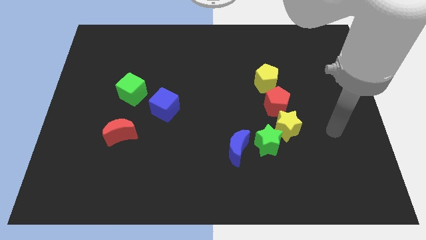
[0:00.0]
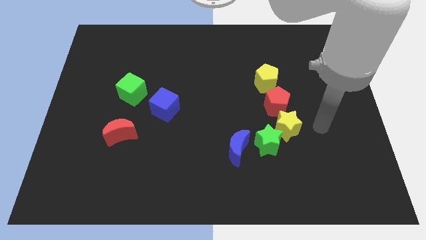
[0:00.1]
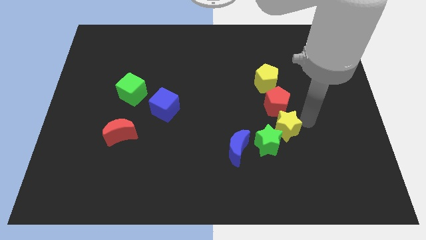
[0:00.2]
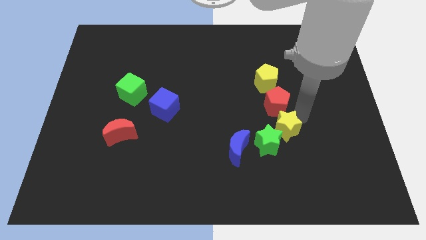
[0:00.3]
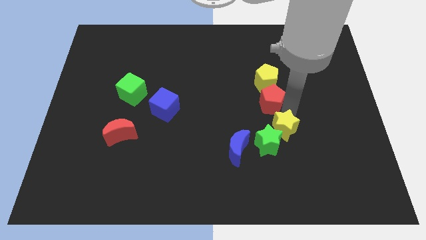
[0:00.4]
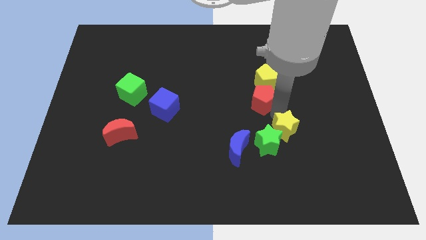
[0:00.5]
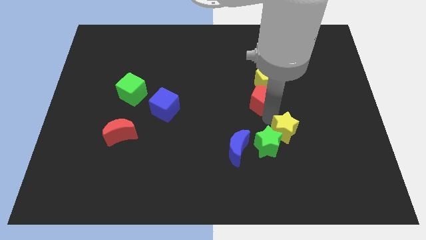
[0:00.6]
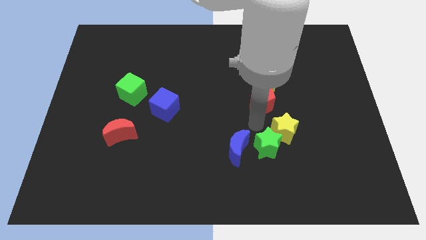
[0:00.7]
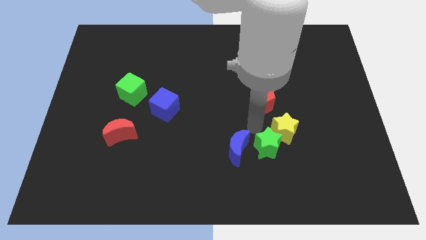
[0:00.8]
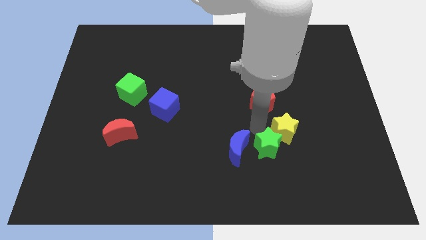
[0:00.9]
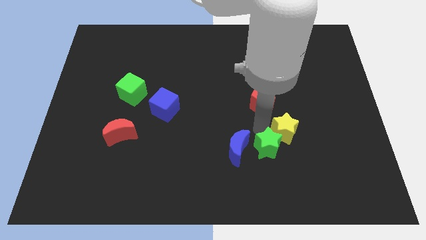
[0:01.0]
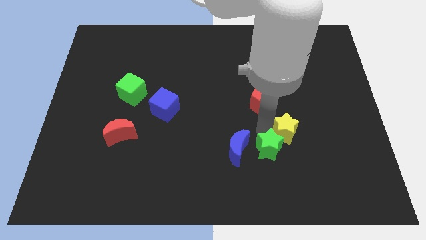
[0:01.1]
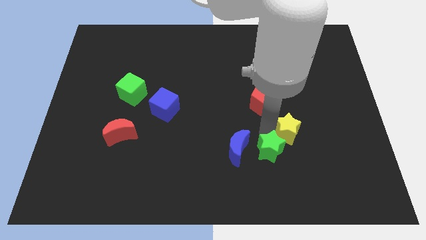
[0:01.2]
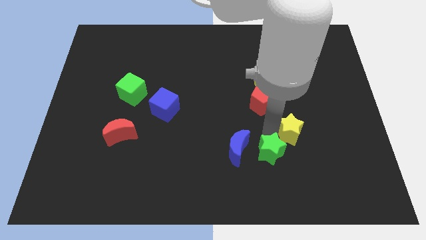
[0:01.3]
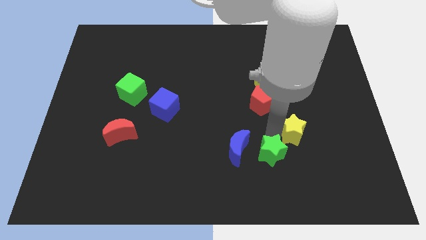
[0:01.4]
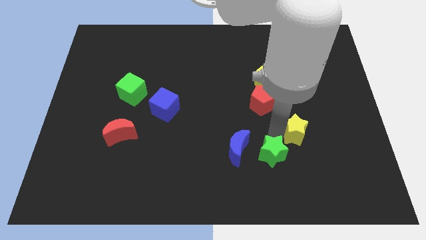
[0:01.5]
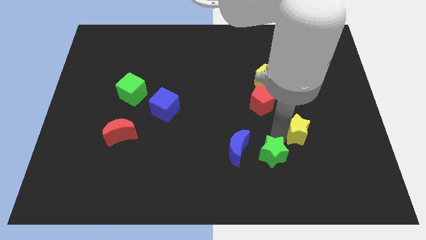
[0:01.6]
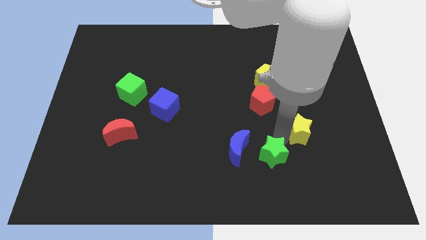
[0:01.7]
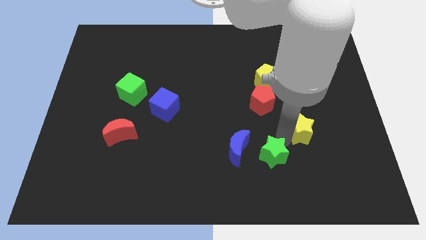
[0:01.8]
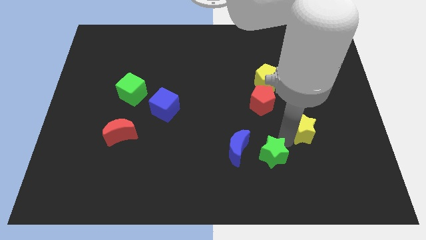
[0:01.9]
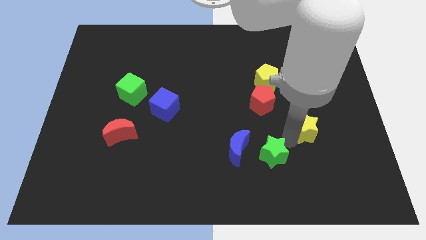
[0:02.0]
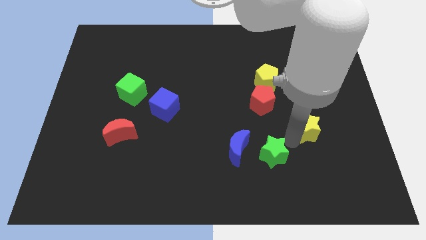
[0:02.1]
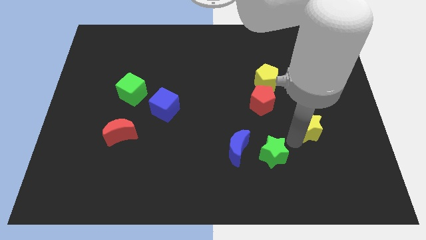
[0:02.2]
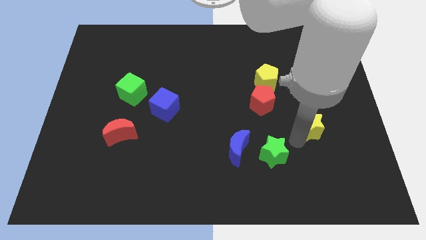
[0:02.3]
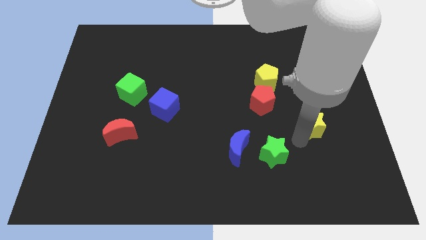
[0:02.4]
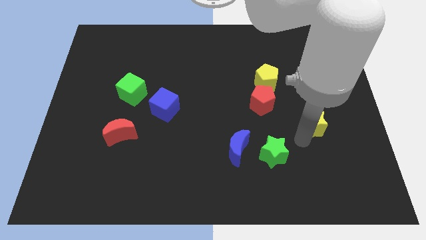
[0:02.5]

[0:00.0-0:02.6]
move the yellow star away from the green star and red pentagon

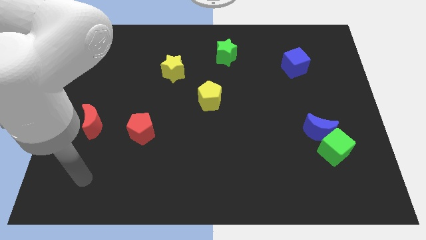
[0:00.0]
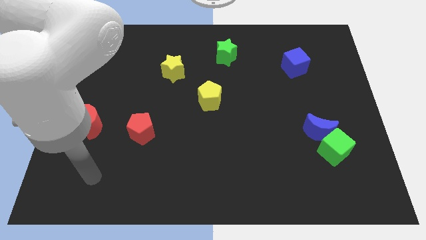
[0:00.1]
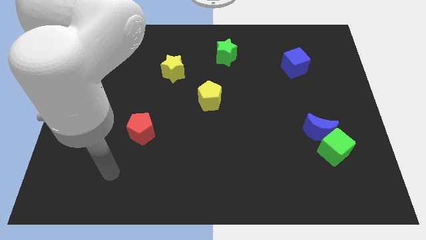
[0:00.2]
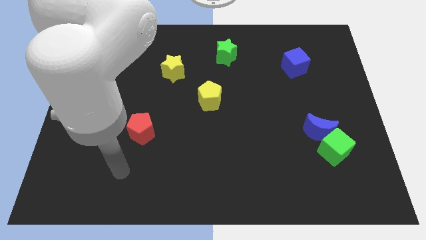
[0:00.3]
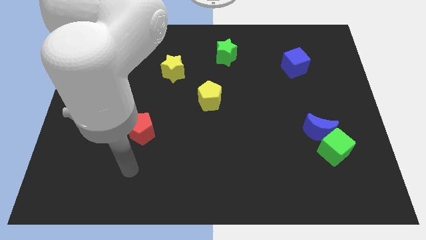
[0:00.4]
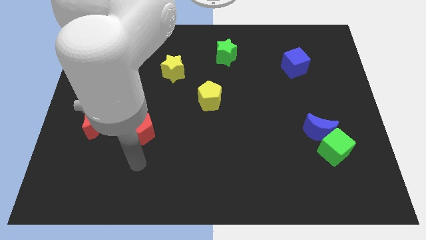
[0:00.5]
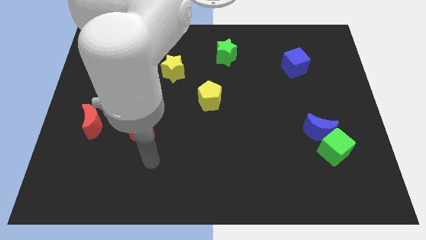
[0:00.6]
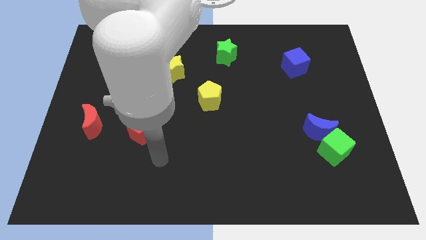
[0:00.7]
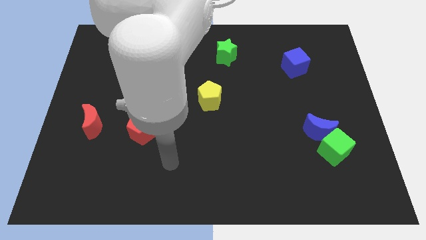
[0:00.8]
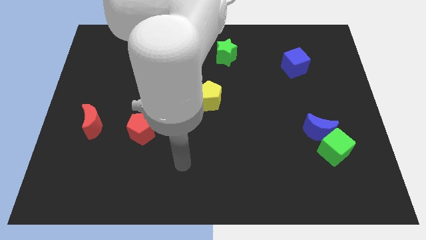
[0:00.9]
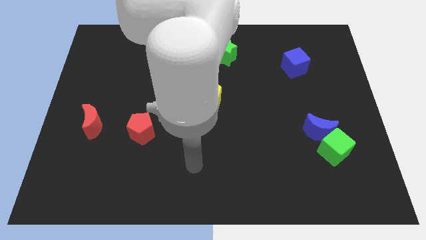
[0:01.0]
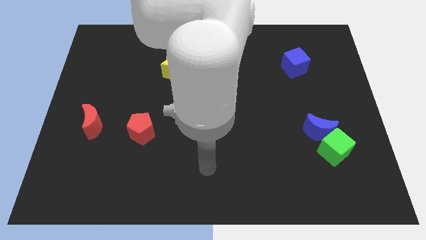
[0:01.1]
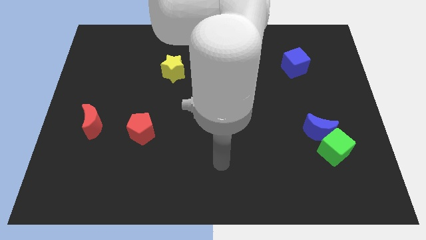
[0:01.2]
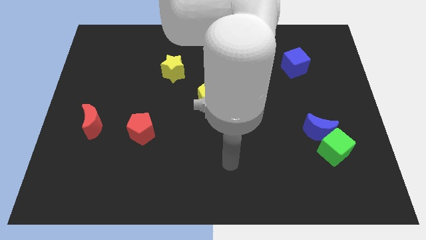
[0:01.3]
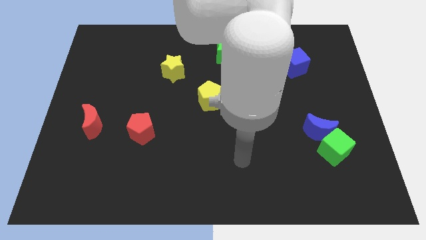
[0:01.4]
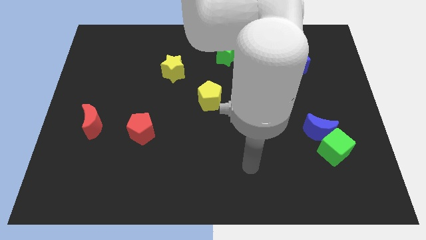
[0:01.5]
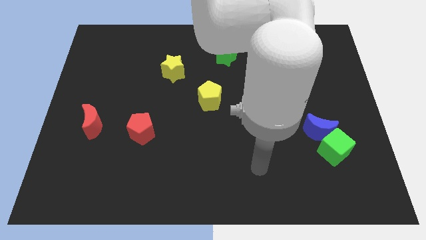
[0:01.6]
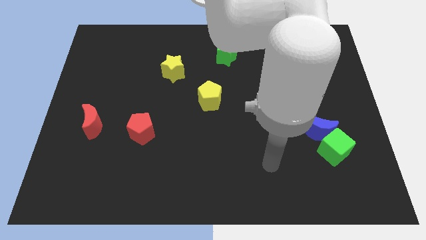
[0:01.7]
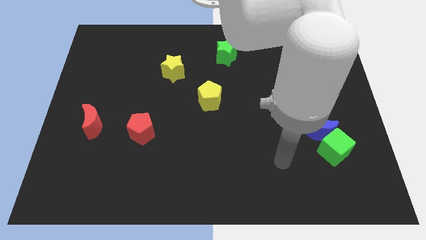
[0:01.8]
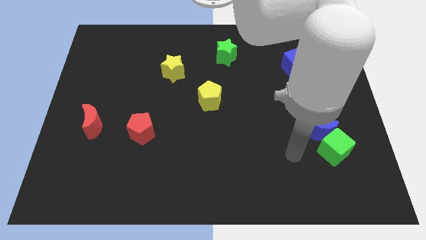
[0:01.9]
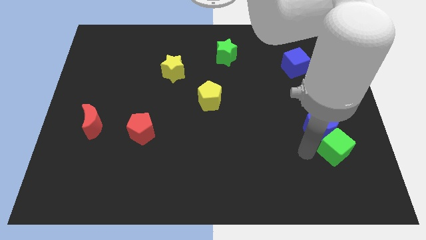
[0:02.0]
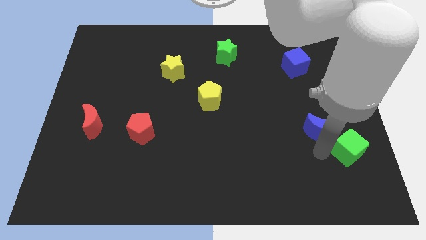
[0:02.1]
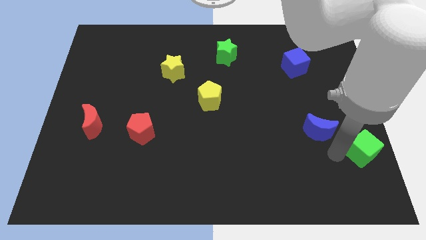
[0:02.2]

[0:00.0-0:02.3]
pull the blue moon apart from the green cube

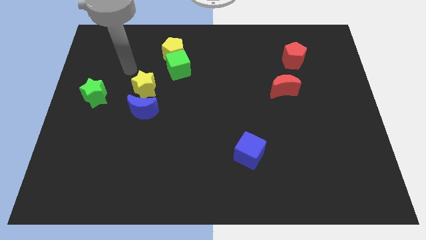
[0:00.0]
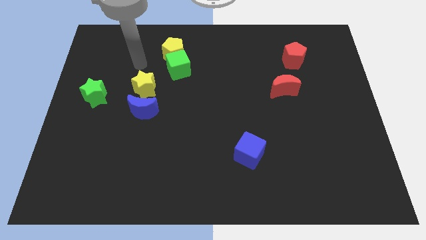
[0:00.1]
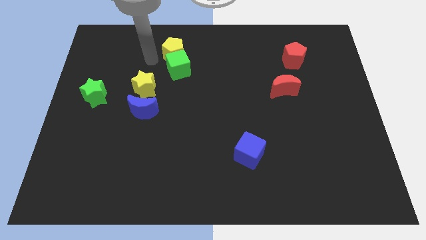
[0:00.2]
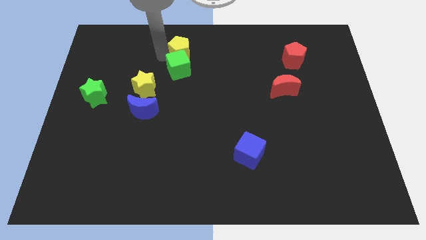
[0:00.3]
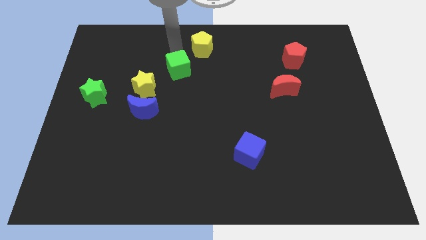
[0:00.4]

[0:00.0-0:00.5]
move the green cube away from the yellow pentagon

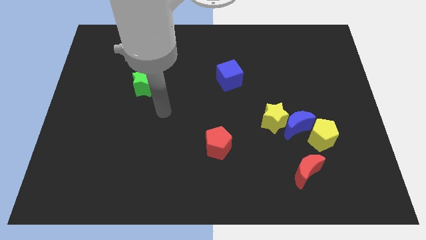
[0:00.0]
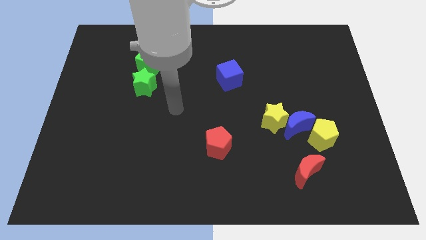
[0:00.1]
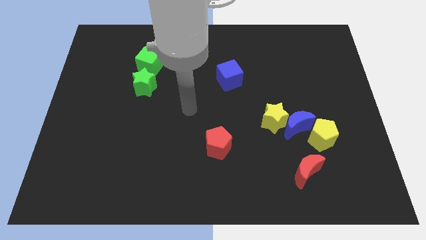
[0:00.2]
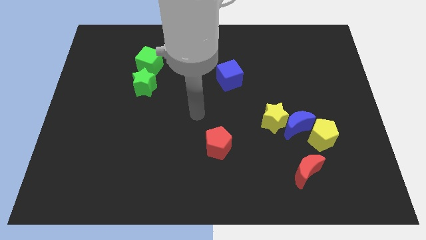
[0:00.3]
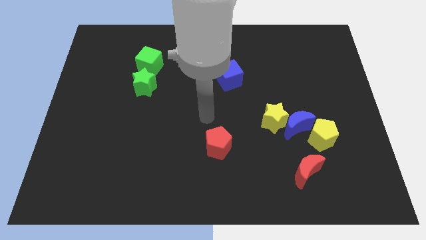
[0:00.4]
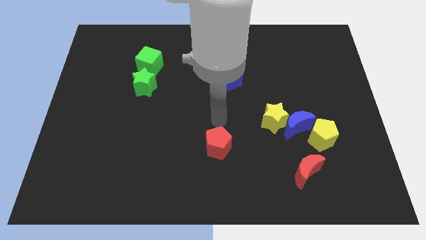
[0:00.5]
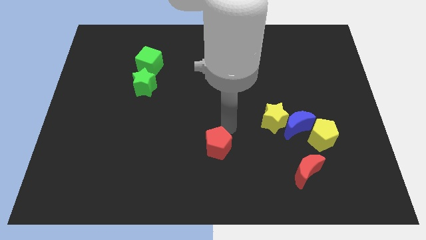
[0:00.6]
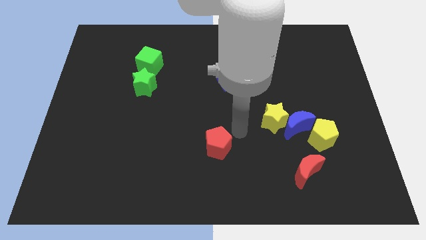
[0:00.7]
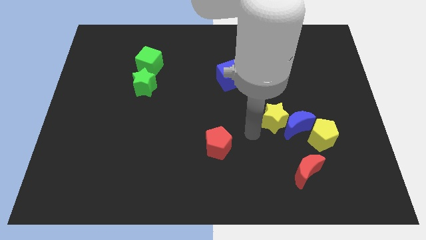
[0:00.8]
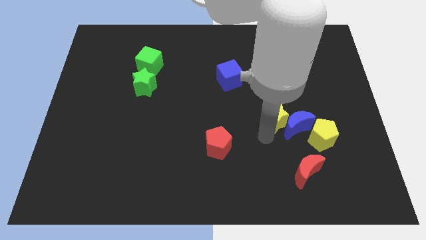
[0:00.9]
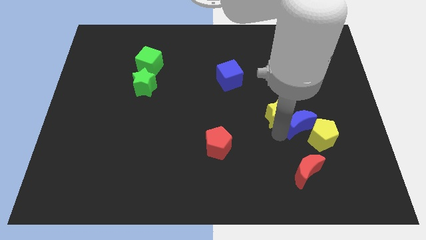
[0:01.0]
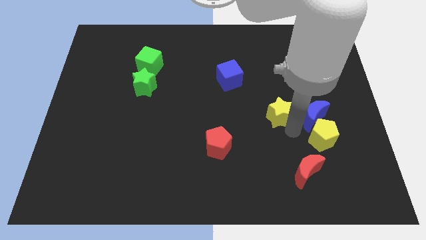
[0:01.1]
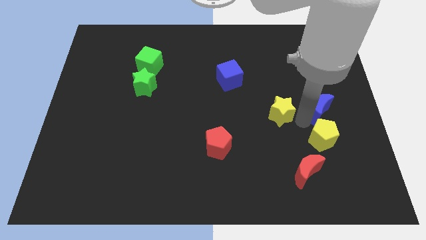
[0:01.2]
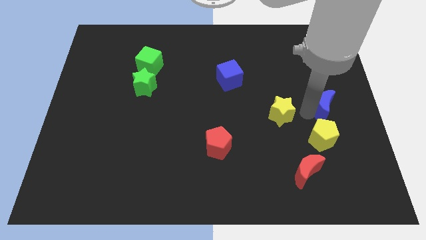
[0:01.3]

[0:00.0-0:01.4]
pull the yellow star apart from the blue moon

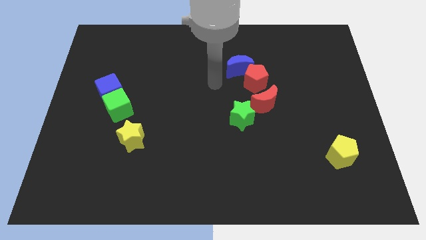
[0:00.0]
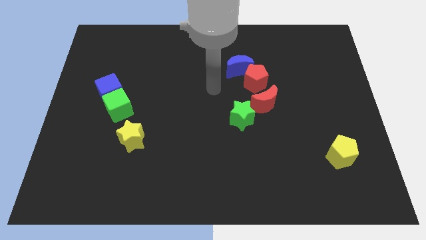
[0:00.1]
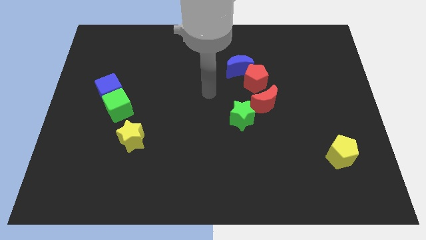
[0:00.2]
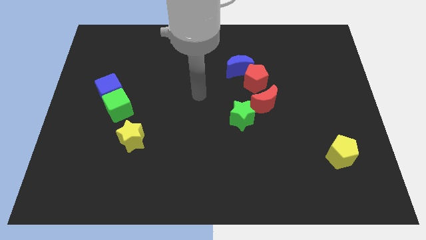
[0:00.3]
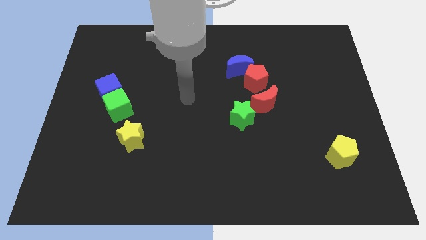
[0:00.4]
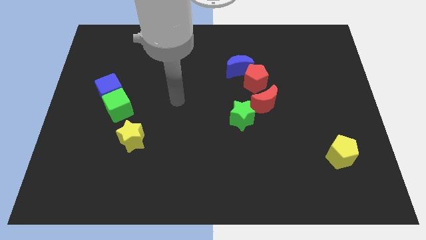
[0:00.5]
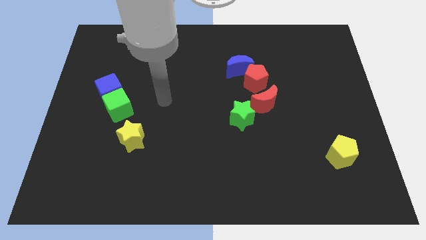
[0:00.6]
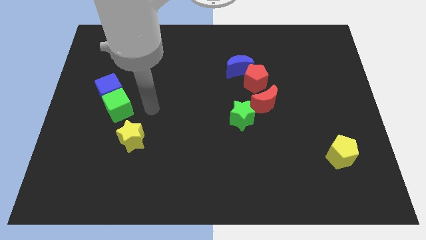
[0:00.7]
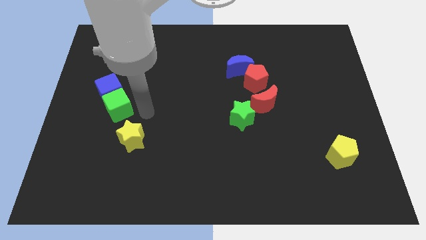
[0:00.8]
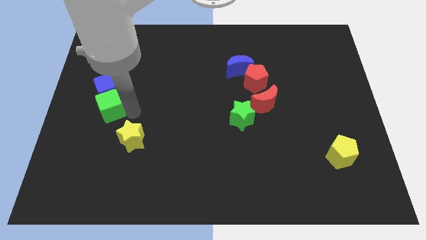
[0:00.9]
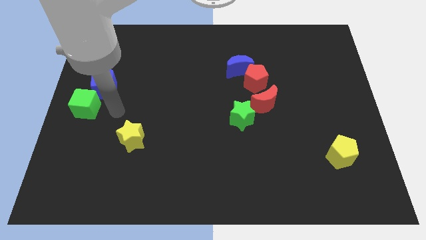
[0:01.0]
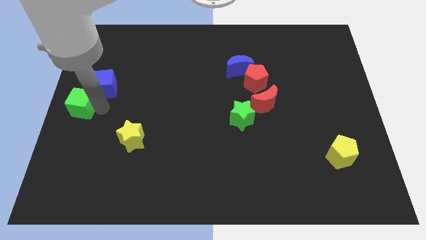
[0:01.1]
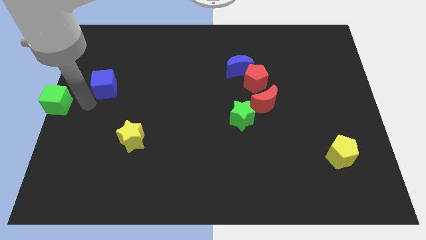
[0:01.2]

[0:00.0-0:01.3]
move the blue cube away from the green cube

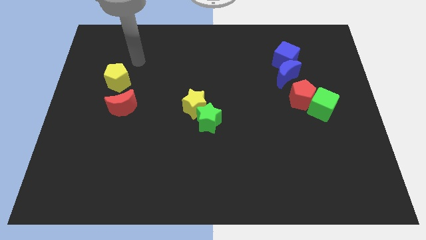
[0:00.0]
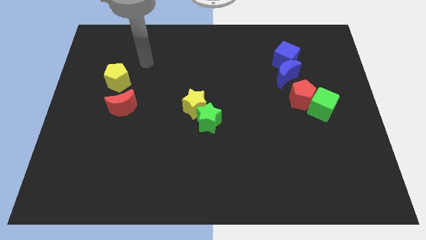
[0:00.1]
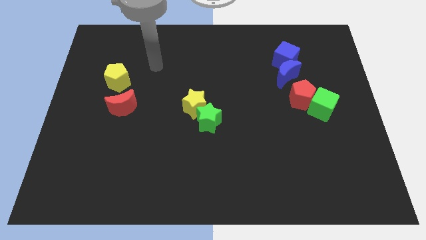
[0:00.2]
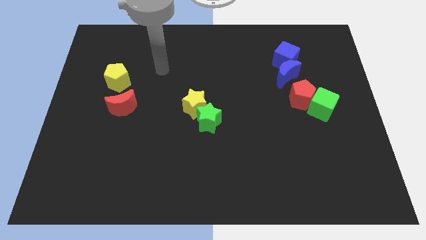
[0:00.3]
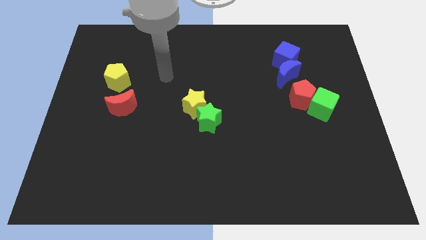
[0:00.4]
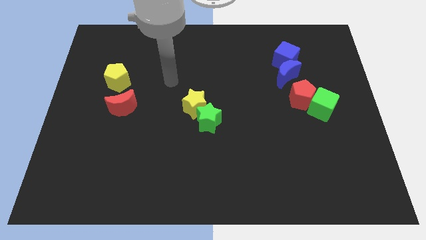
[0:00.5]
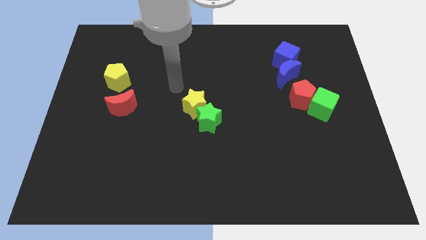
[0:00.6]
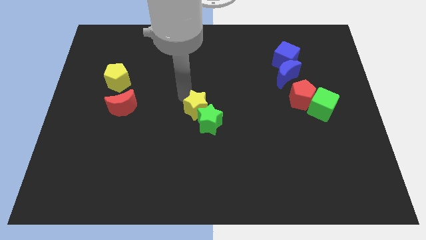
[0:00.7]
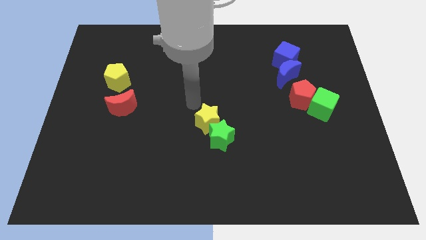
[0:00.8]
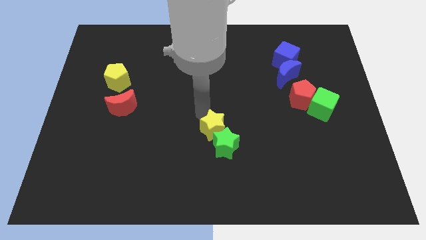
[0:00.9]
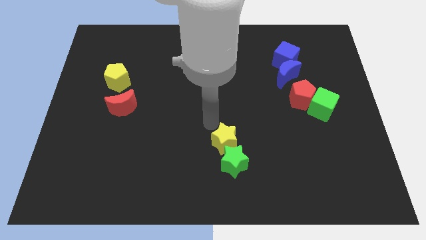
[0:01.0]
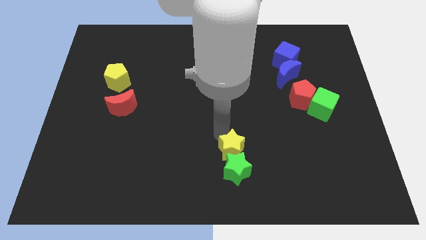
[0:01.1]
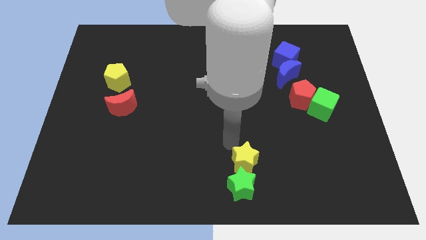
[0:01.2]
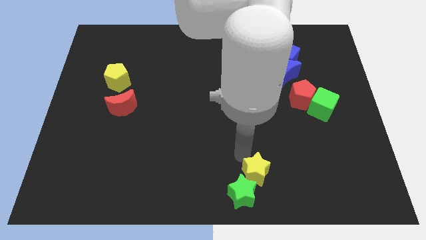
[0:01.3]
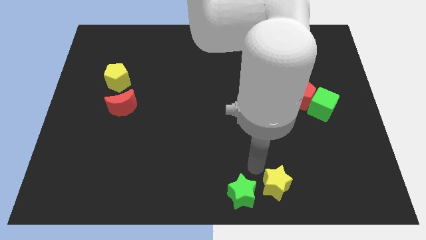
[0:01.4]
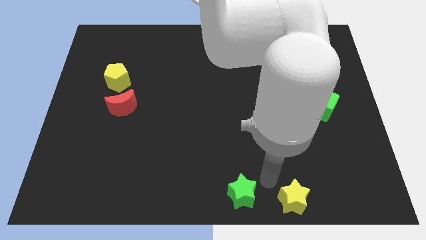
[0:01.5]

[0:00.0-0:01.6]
separate the green star from the yellow star
